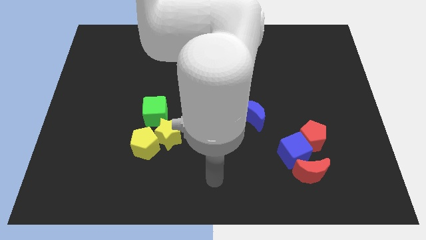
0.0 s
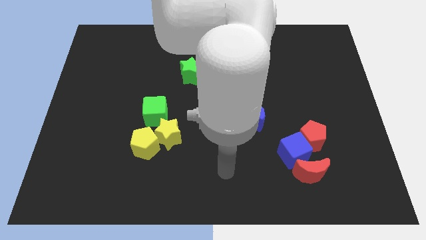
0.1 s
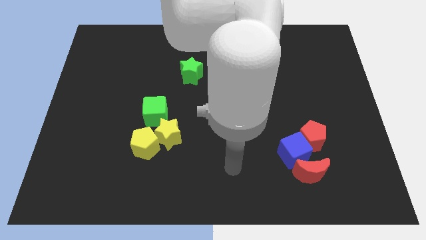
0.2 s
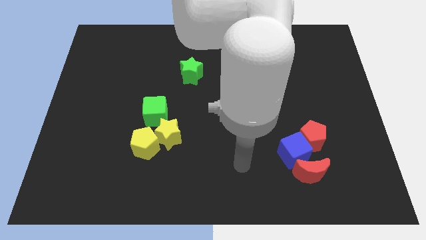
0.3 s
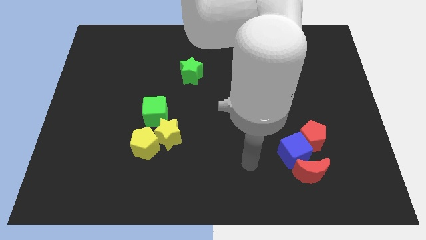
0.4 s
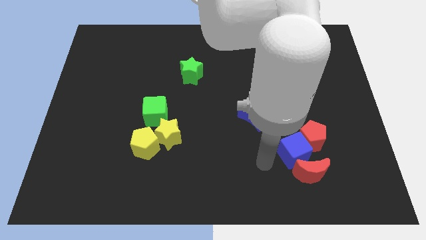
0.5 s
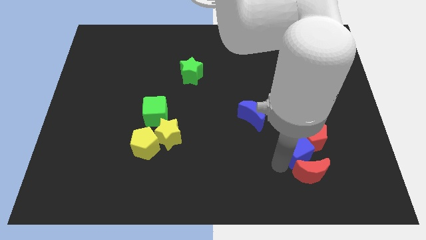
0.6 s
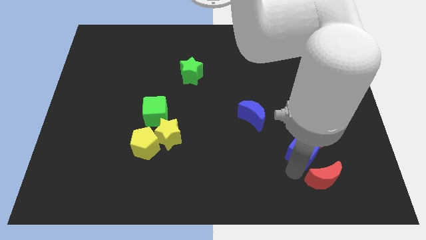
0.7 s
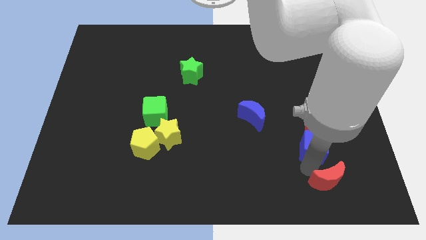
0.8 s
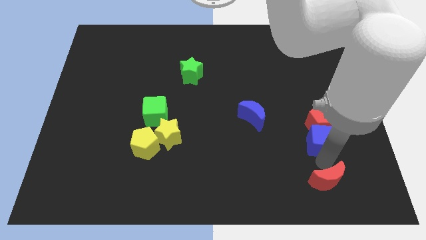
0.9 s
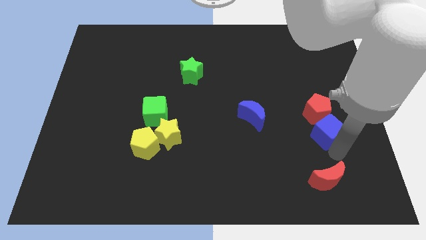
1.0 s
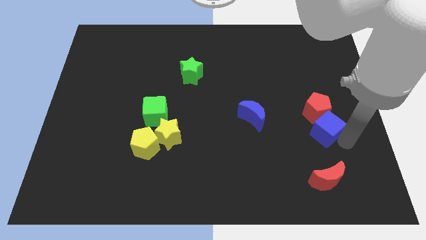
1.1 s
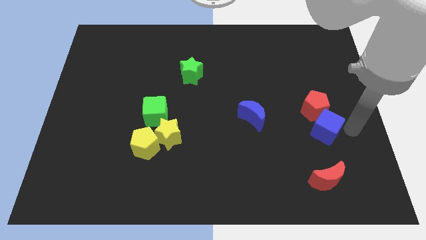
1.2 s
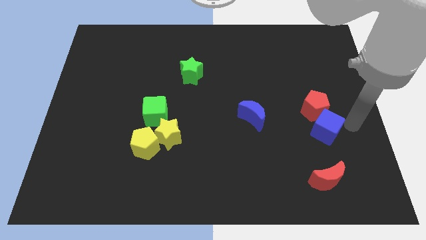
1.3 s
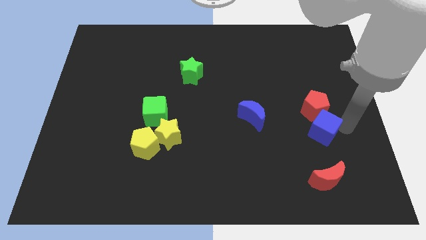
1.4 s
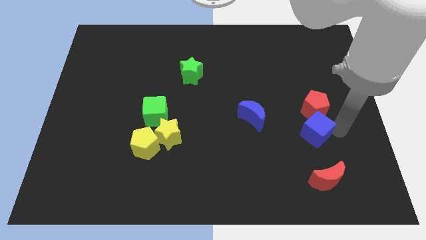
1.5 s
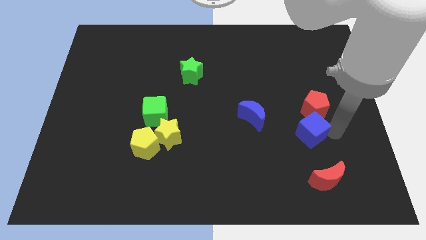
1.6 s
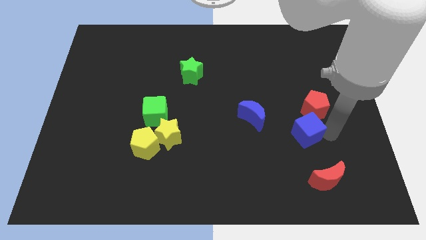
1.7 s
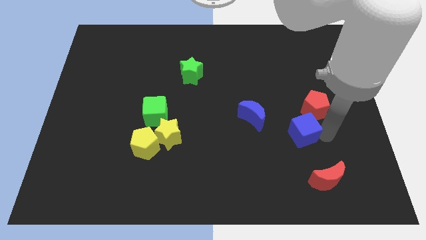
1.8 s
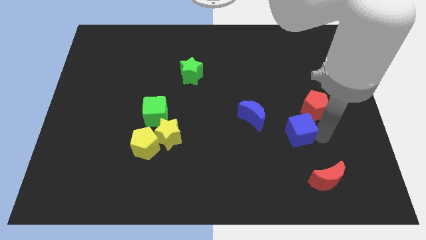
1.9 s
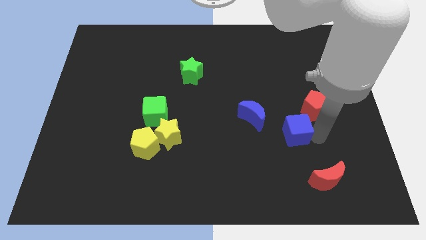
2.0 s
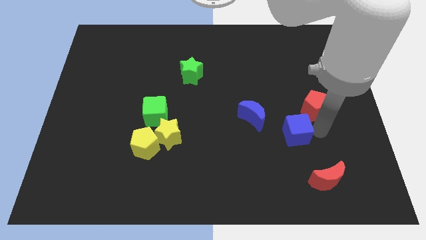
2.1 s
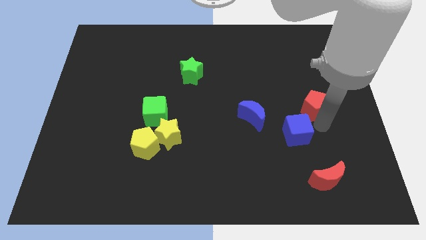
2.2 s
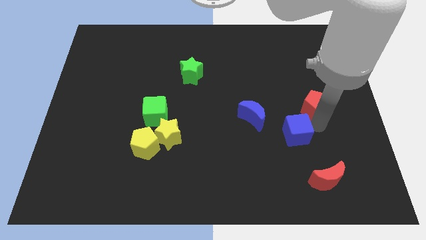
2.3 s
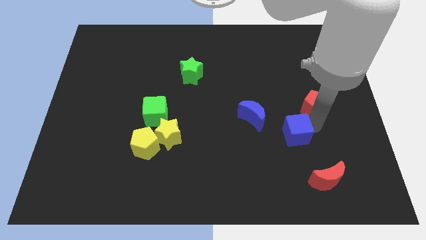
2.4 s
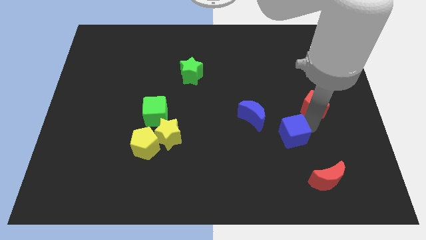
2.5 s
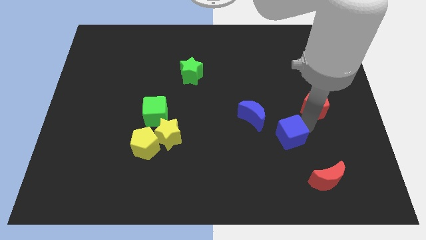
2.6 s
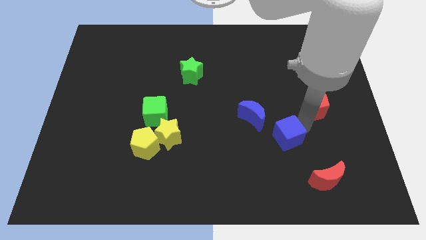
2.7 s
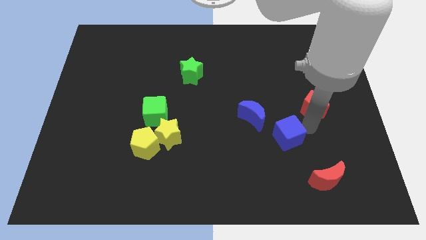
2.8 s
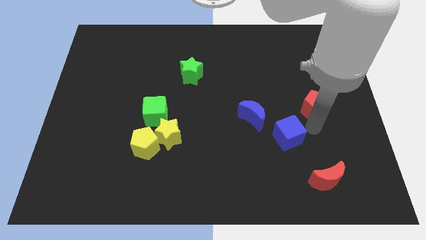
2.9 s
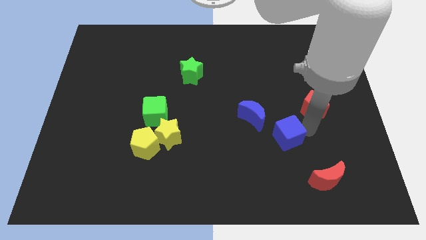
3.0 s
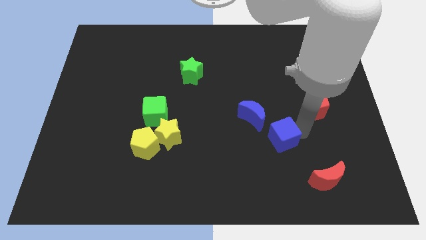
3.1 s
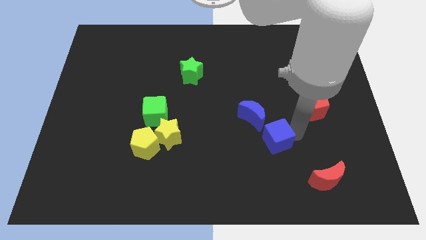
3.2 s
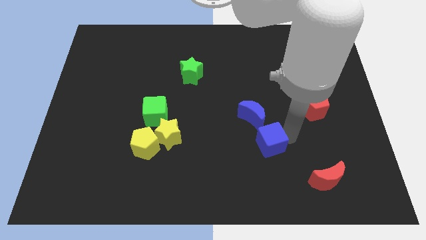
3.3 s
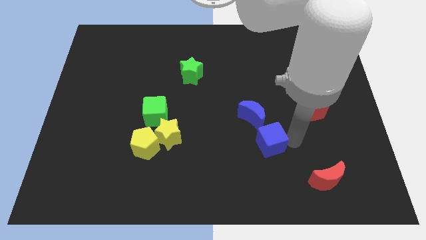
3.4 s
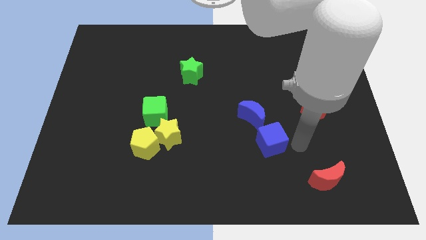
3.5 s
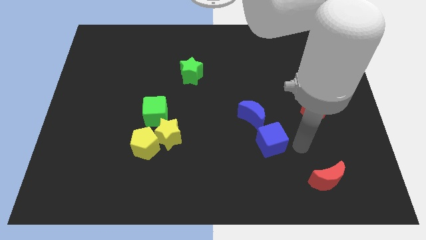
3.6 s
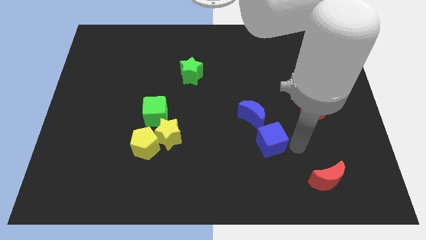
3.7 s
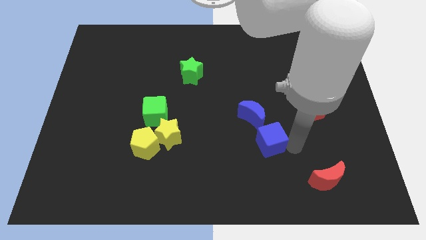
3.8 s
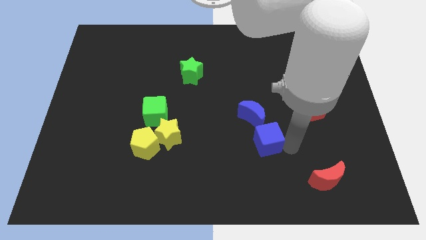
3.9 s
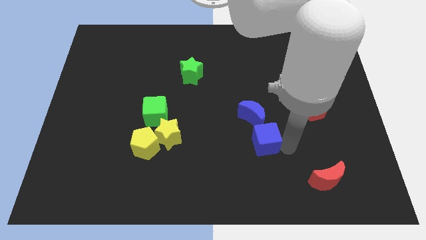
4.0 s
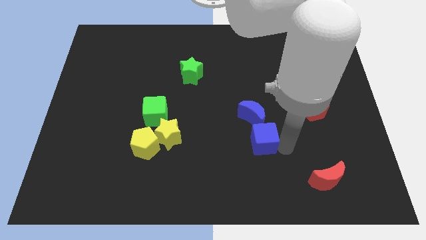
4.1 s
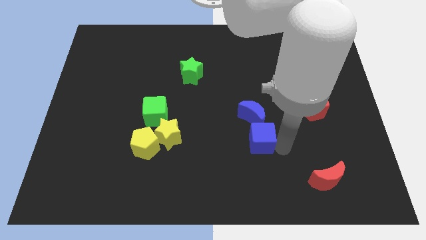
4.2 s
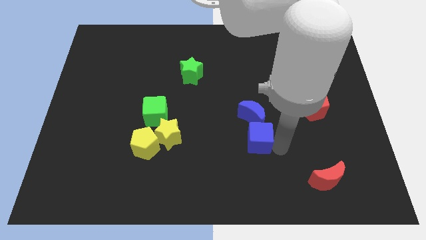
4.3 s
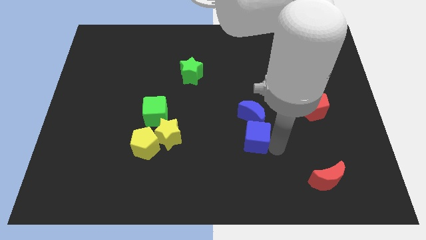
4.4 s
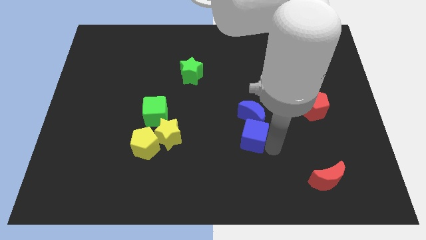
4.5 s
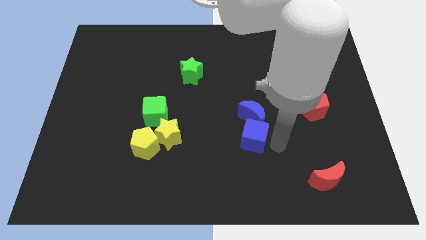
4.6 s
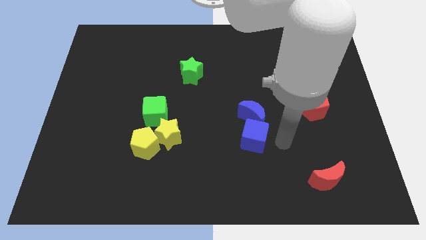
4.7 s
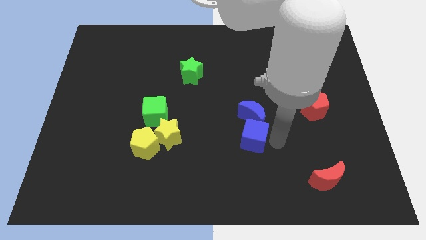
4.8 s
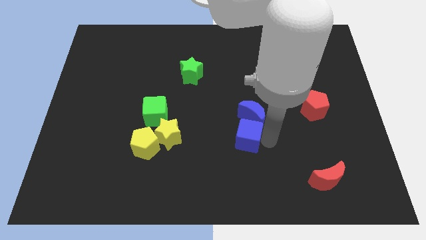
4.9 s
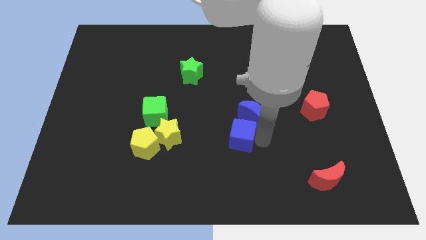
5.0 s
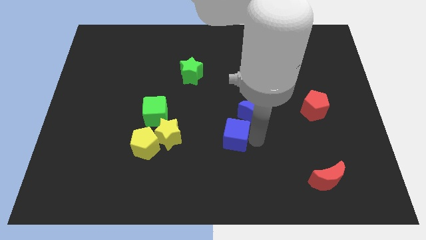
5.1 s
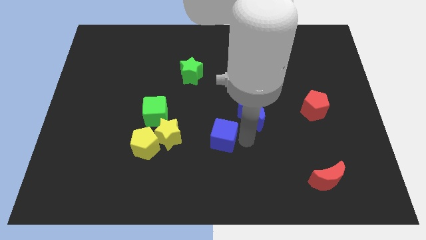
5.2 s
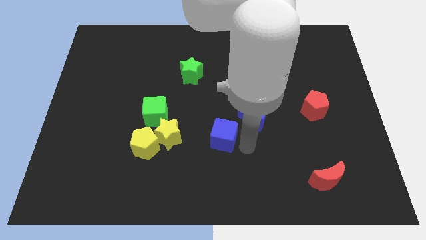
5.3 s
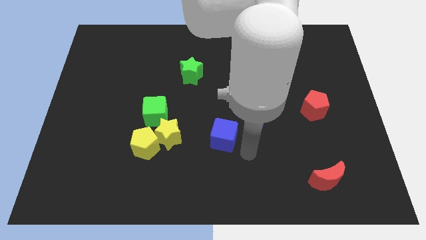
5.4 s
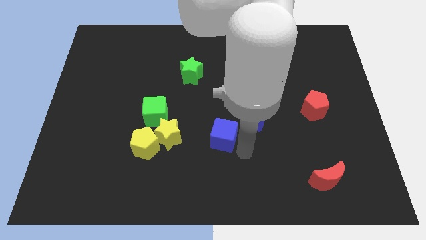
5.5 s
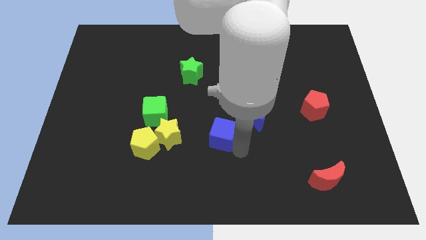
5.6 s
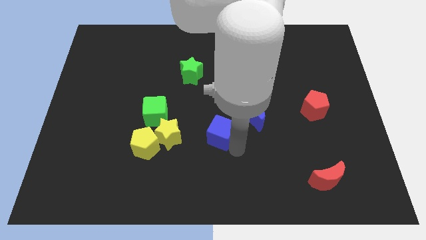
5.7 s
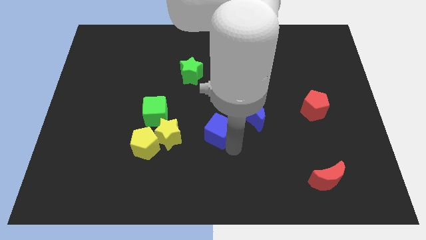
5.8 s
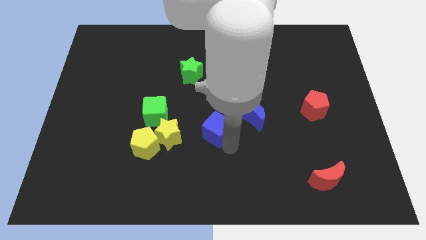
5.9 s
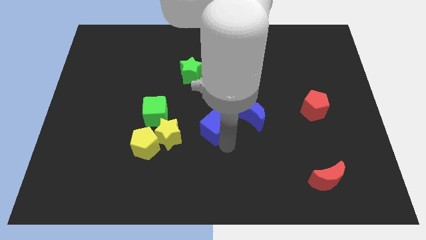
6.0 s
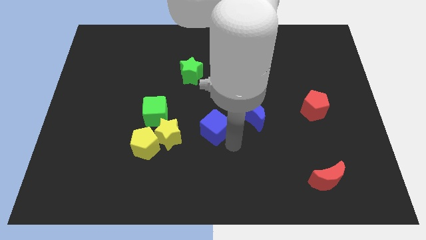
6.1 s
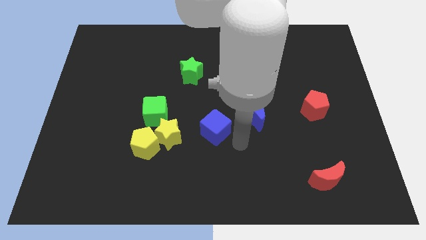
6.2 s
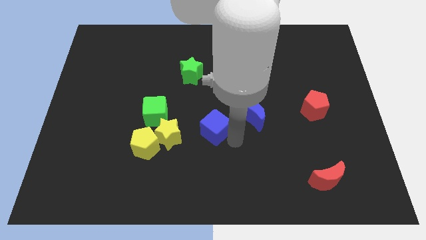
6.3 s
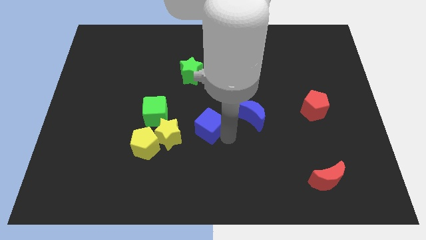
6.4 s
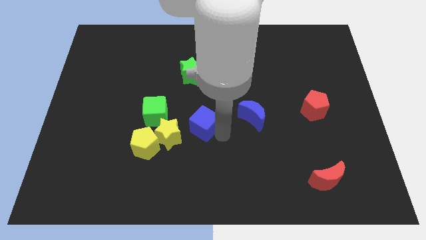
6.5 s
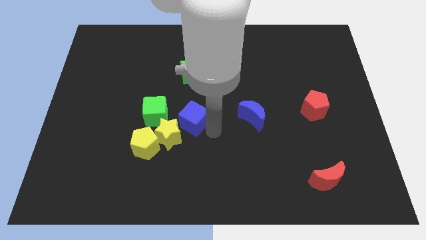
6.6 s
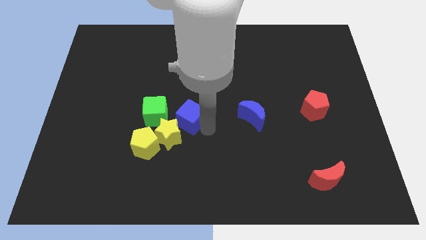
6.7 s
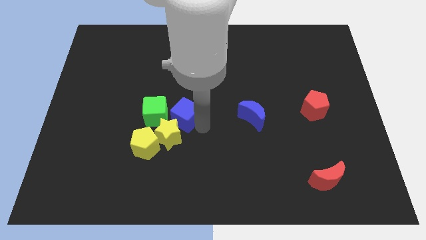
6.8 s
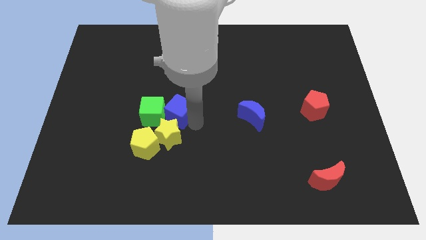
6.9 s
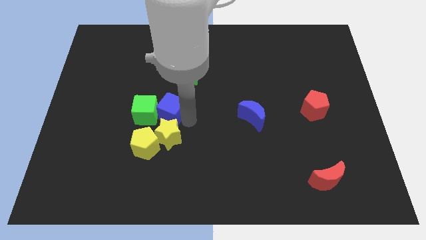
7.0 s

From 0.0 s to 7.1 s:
put the blue cube to the top left of the yellow star
